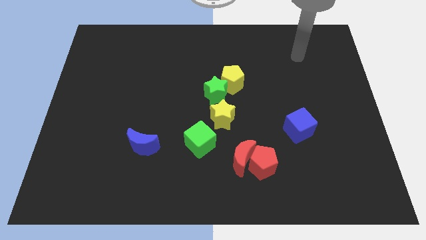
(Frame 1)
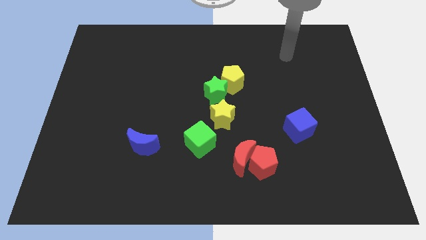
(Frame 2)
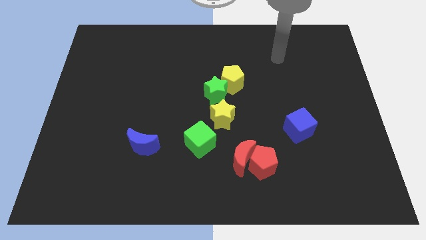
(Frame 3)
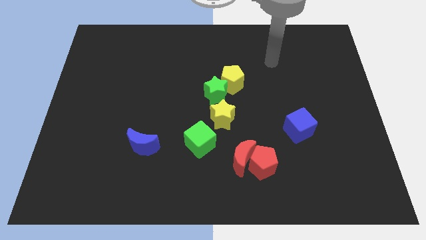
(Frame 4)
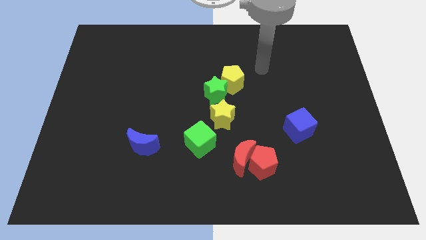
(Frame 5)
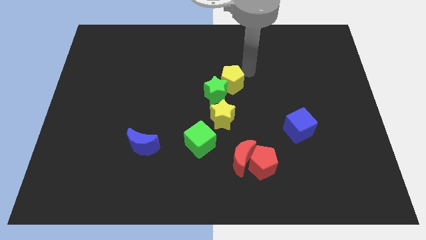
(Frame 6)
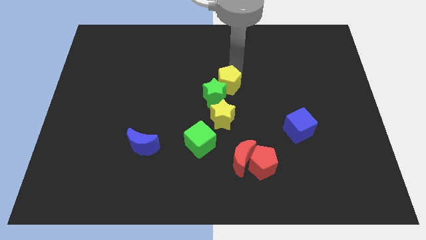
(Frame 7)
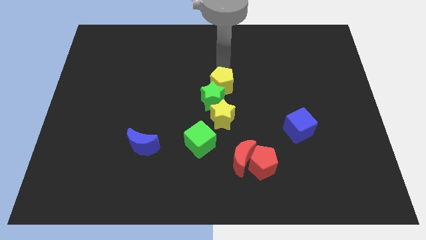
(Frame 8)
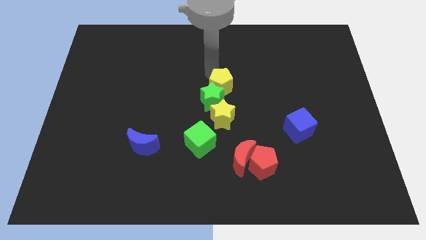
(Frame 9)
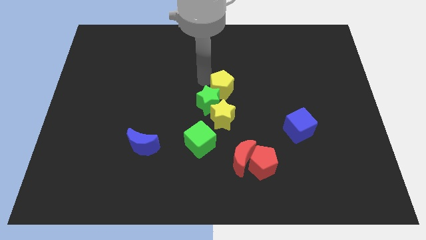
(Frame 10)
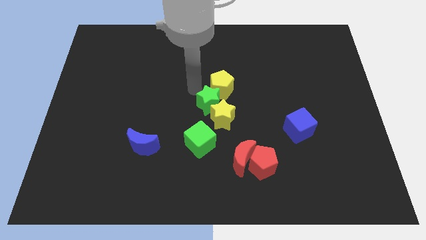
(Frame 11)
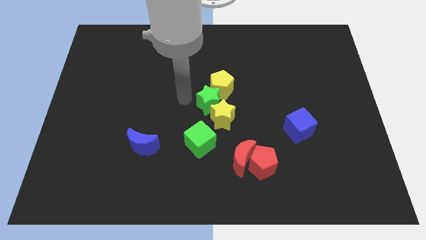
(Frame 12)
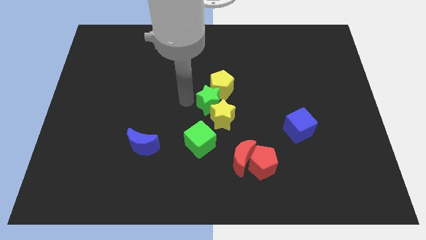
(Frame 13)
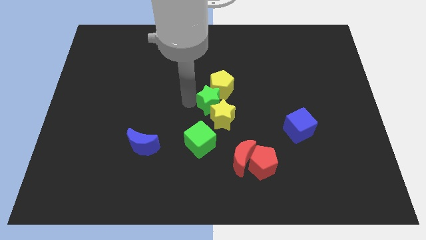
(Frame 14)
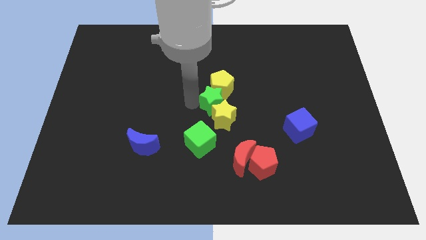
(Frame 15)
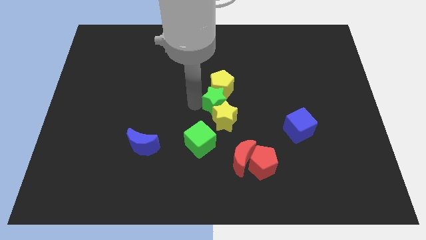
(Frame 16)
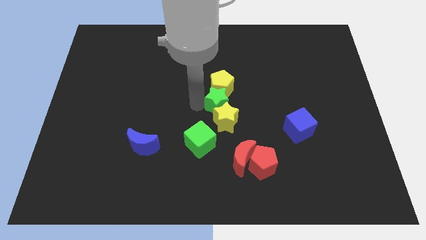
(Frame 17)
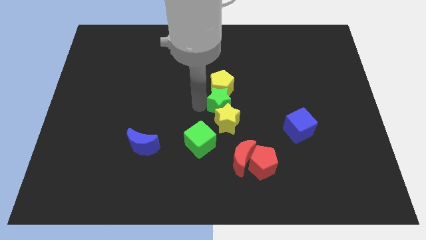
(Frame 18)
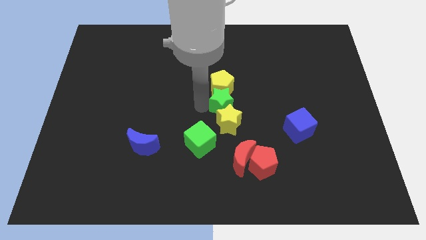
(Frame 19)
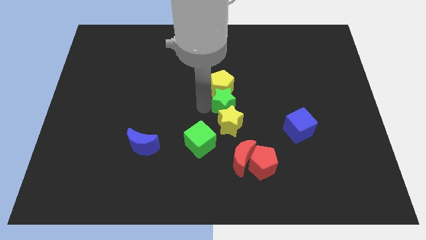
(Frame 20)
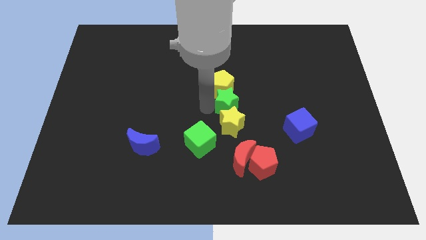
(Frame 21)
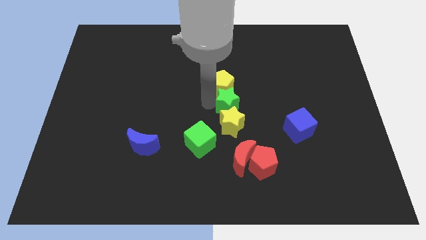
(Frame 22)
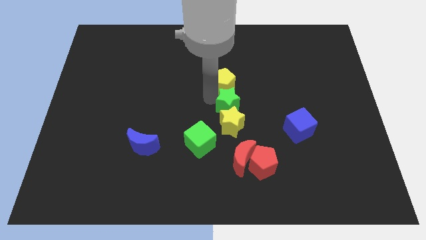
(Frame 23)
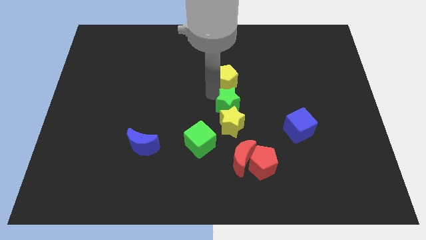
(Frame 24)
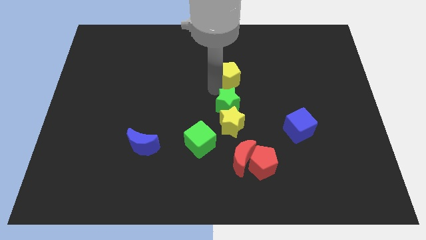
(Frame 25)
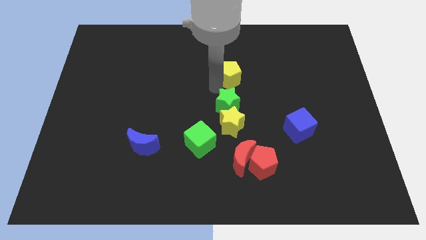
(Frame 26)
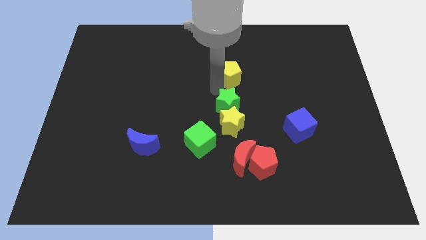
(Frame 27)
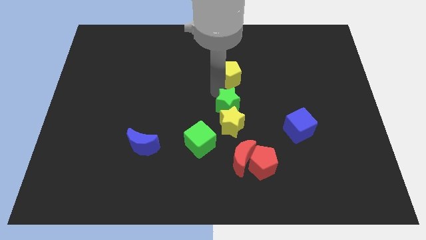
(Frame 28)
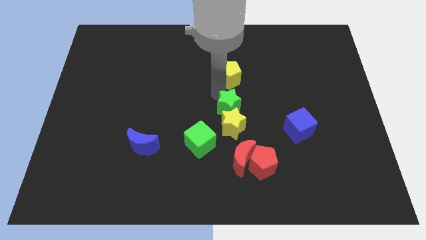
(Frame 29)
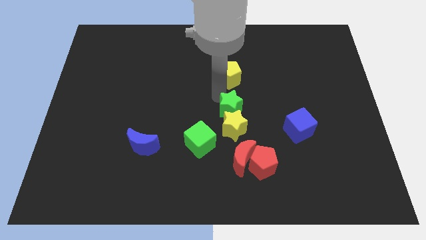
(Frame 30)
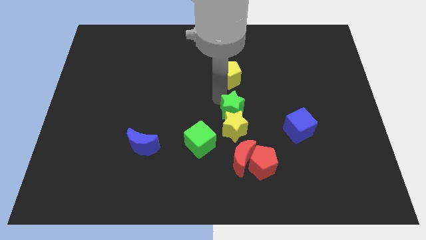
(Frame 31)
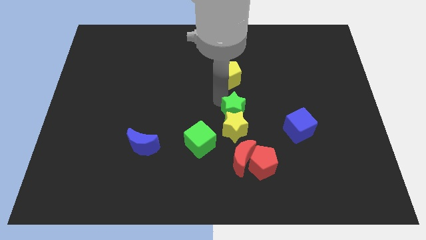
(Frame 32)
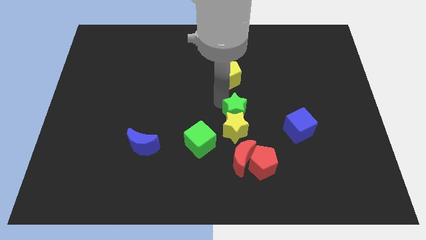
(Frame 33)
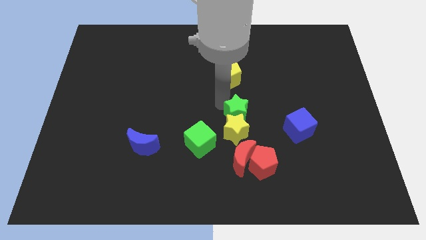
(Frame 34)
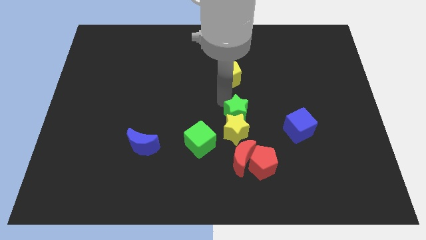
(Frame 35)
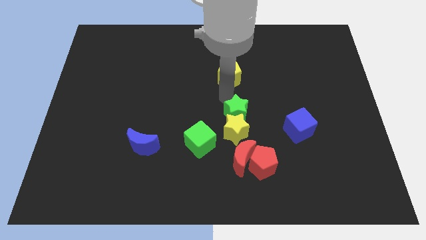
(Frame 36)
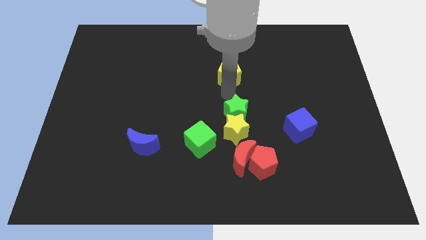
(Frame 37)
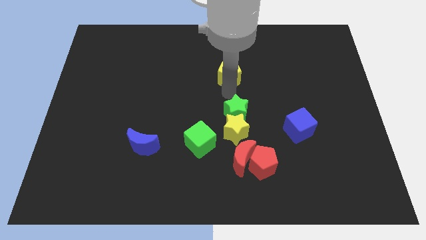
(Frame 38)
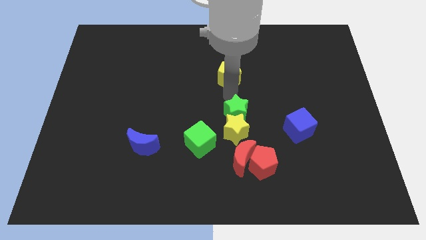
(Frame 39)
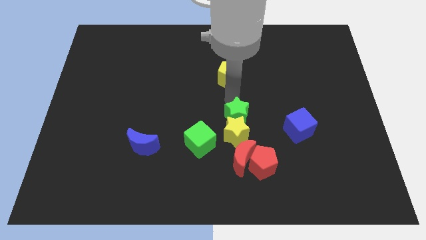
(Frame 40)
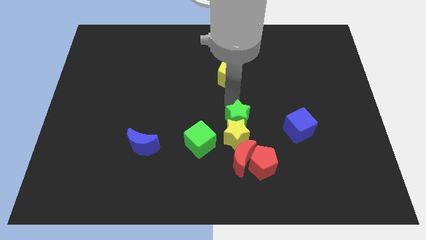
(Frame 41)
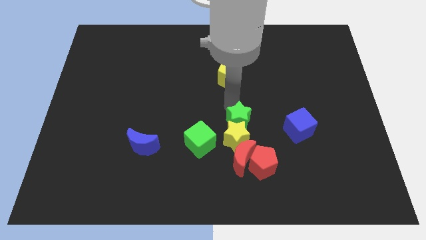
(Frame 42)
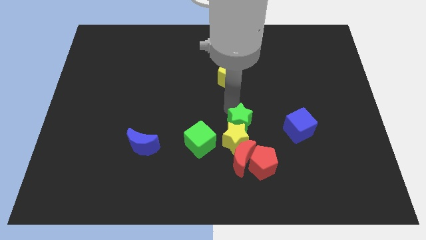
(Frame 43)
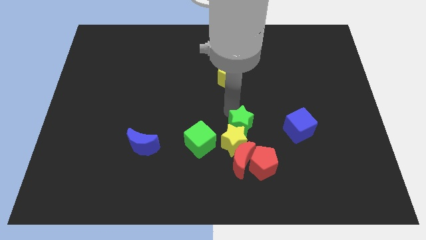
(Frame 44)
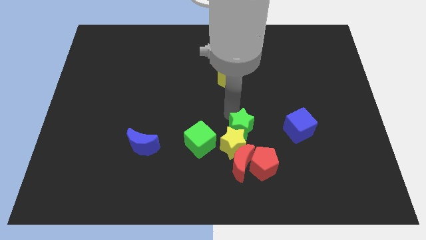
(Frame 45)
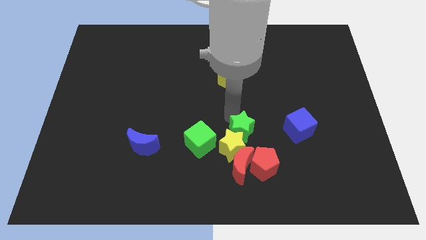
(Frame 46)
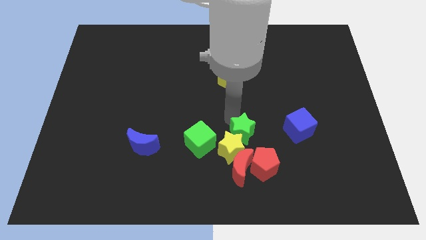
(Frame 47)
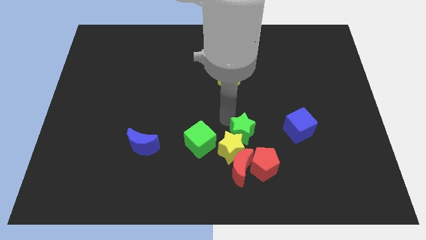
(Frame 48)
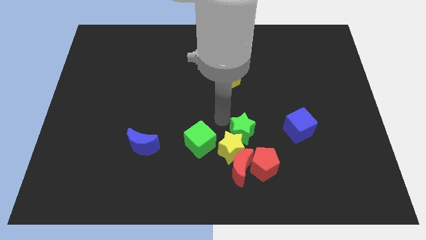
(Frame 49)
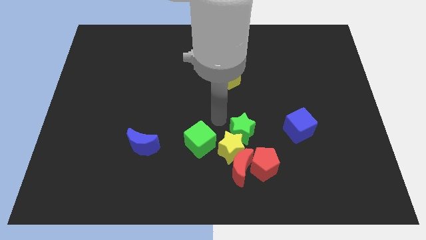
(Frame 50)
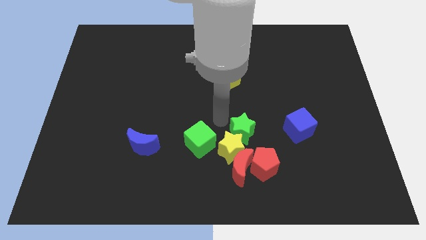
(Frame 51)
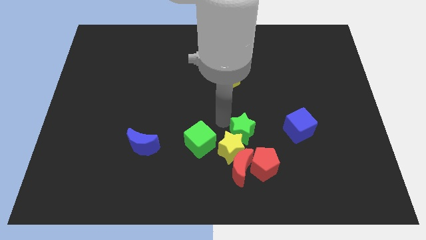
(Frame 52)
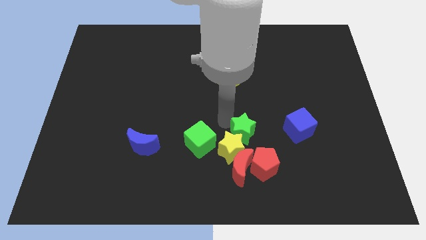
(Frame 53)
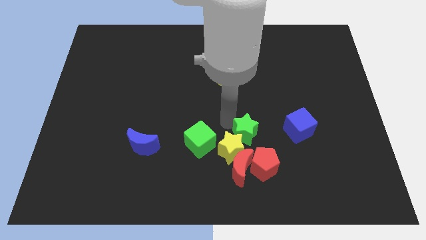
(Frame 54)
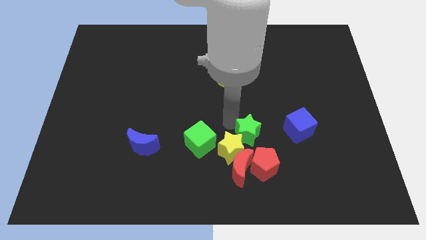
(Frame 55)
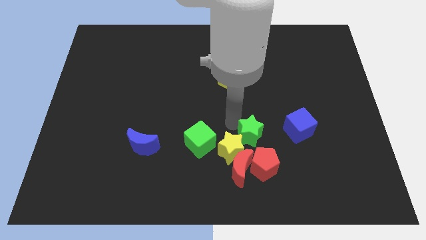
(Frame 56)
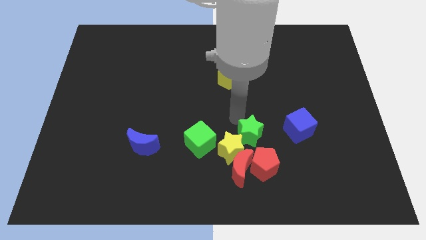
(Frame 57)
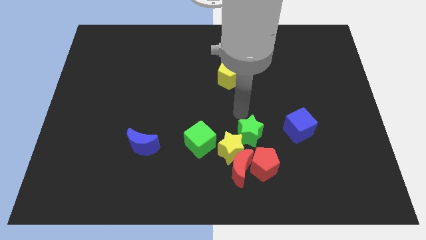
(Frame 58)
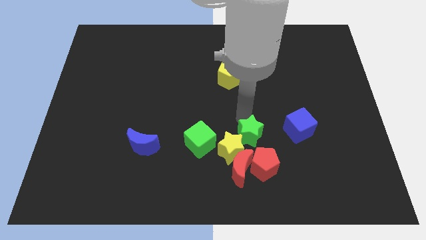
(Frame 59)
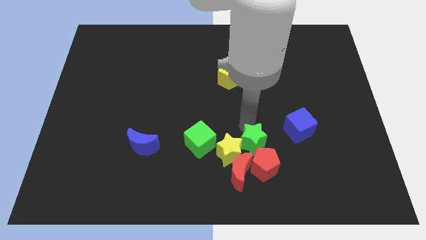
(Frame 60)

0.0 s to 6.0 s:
move the green star next to the red pentagon

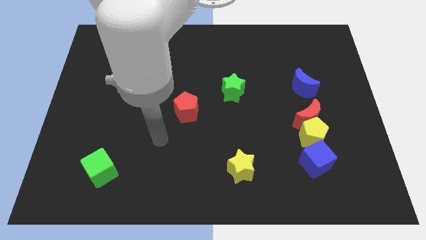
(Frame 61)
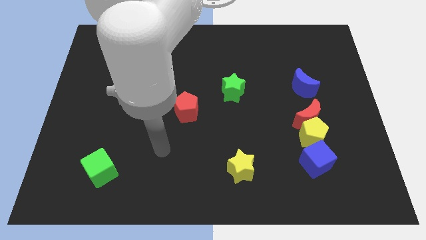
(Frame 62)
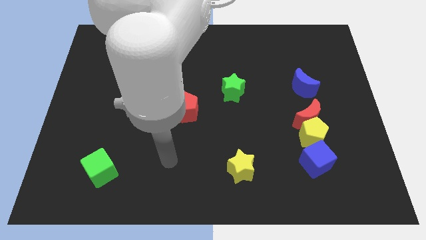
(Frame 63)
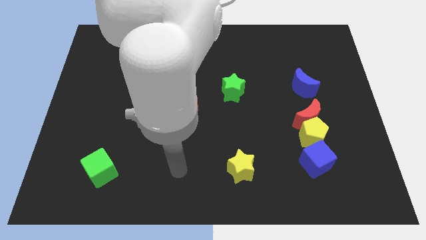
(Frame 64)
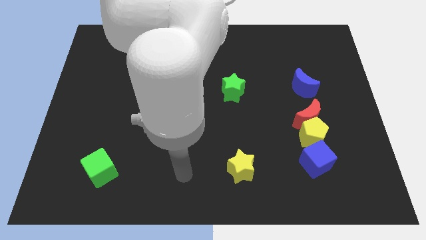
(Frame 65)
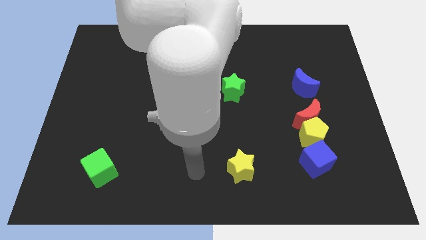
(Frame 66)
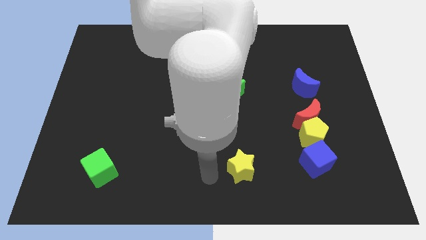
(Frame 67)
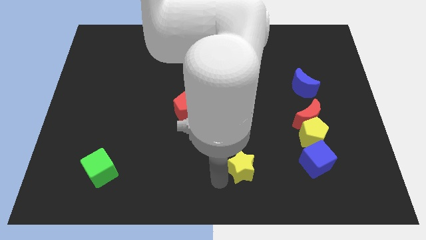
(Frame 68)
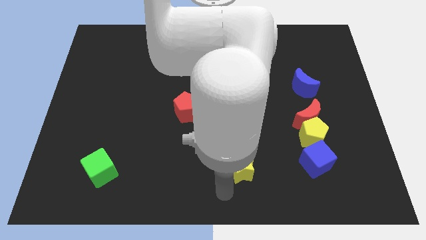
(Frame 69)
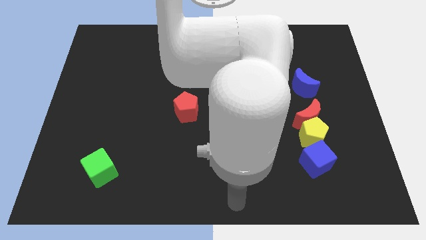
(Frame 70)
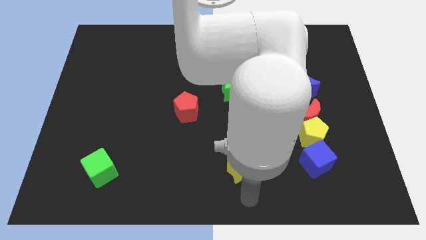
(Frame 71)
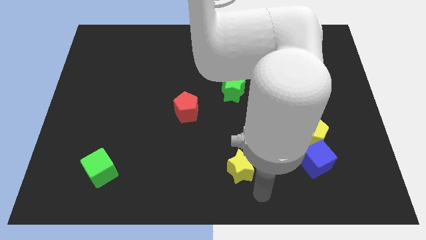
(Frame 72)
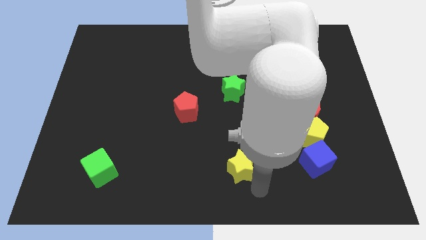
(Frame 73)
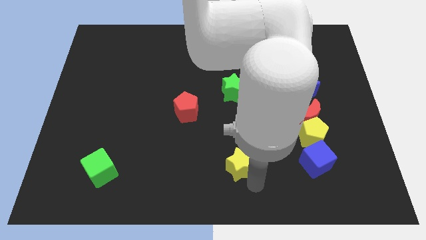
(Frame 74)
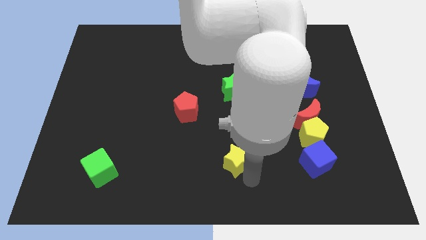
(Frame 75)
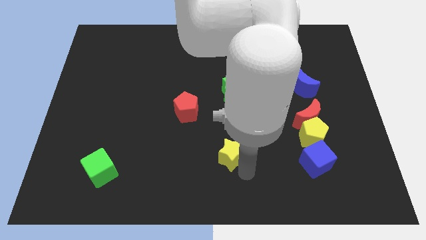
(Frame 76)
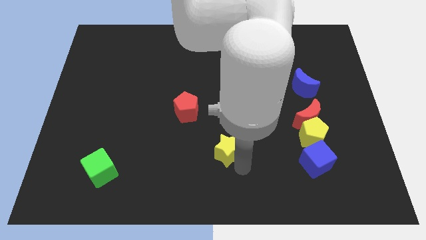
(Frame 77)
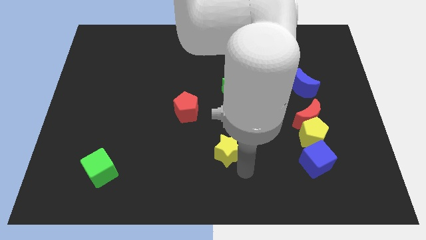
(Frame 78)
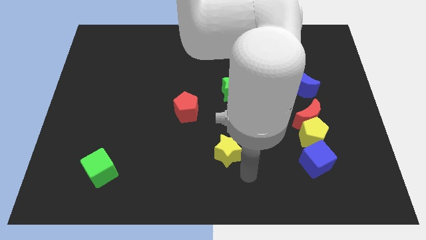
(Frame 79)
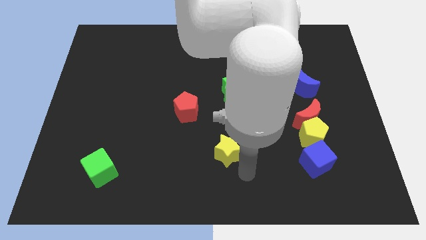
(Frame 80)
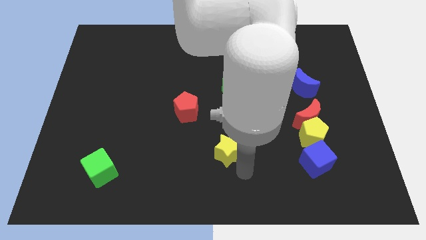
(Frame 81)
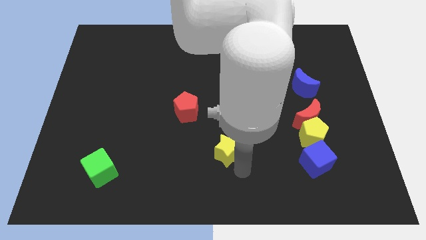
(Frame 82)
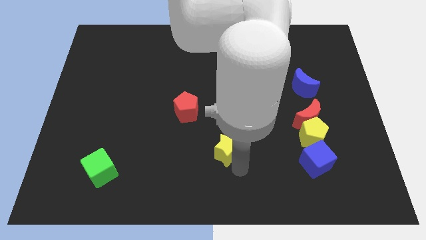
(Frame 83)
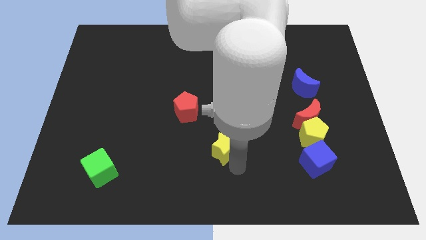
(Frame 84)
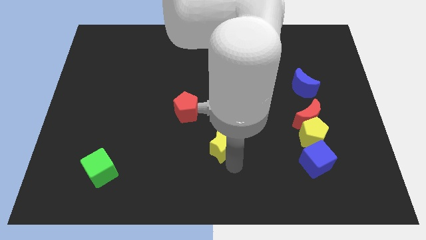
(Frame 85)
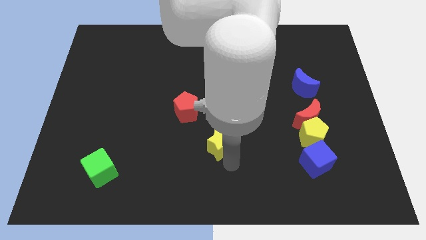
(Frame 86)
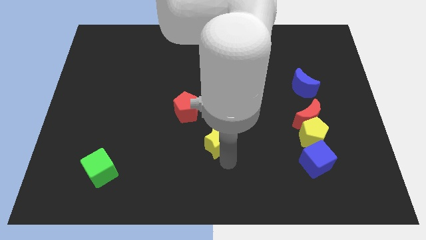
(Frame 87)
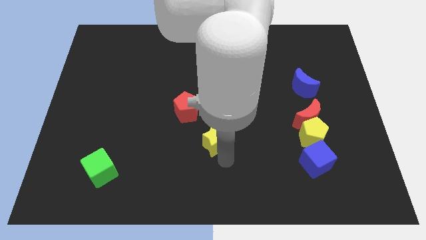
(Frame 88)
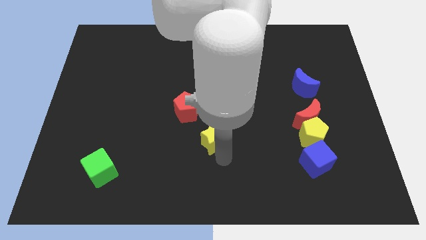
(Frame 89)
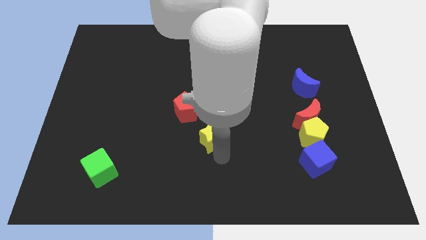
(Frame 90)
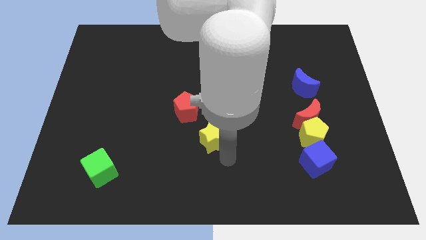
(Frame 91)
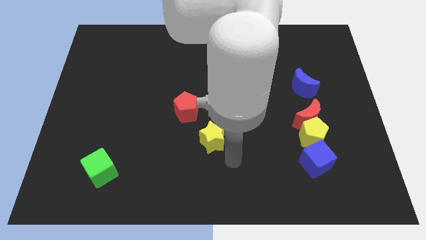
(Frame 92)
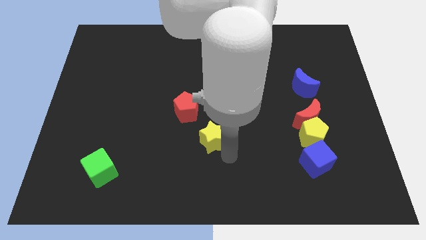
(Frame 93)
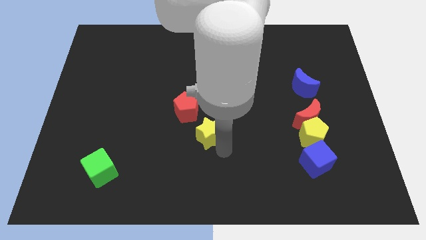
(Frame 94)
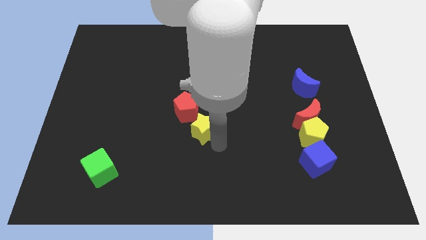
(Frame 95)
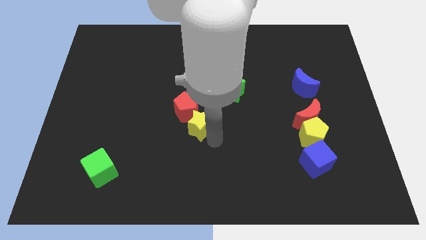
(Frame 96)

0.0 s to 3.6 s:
put the yellow star next to the red pentagon
